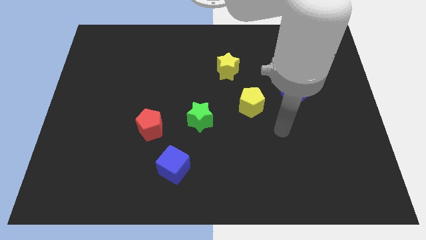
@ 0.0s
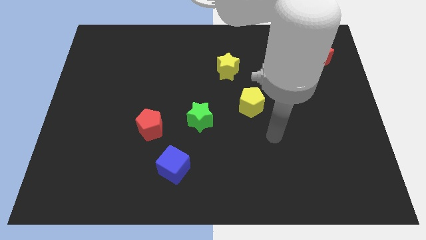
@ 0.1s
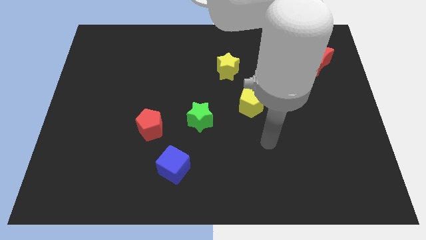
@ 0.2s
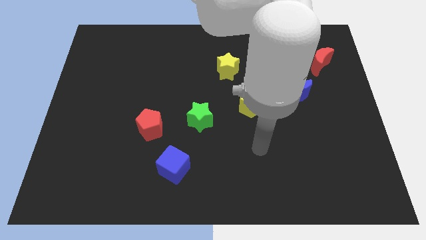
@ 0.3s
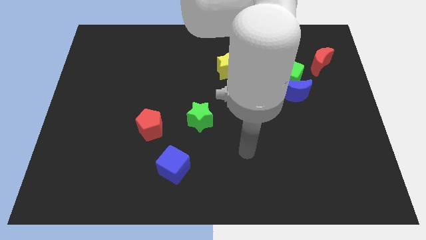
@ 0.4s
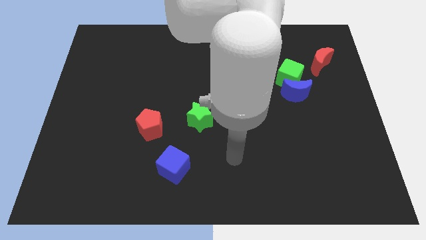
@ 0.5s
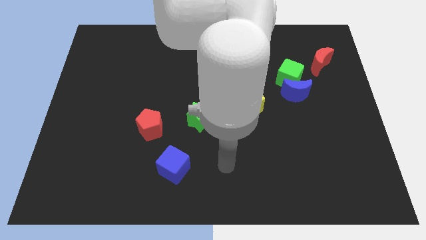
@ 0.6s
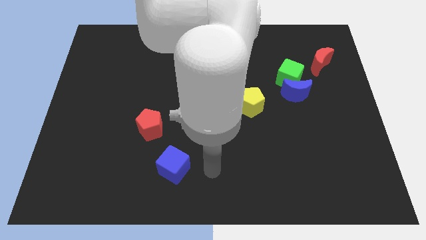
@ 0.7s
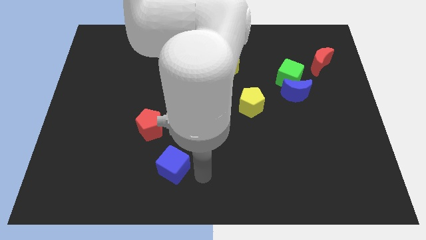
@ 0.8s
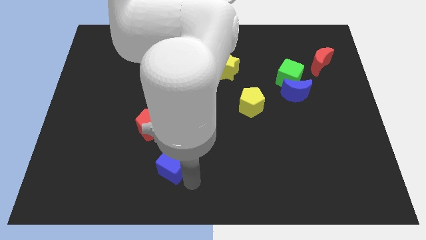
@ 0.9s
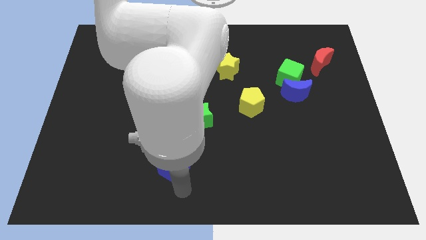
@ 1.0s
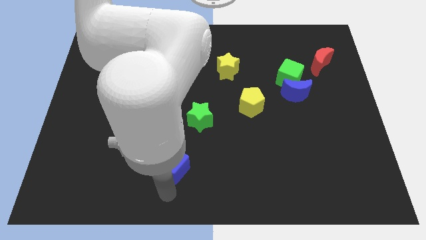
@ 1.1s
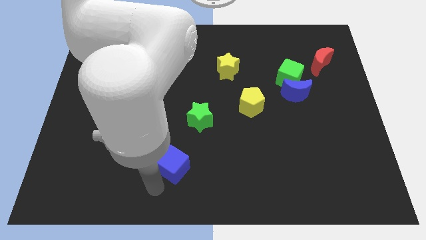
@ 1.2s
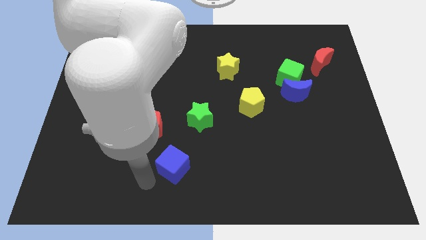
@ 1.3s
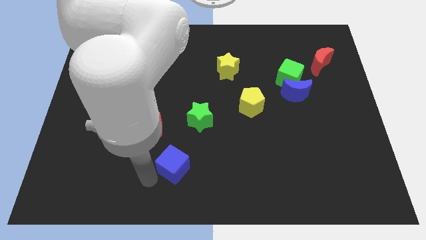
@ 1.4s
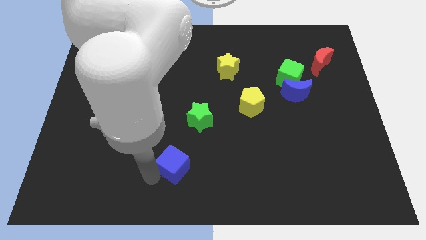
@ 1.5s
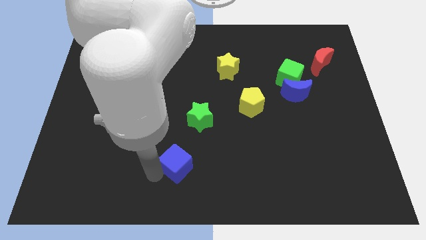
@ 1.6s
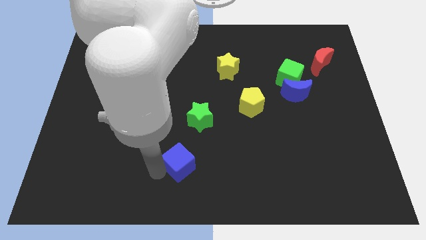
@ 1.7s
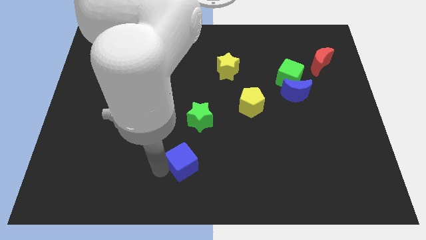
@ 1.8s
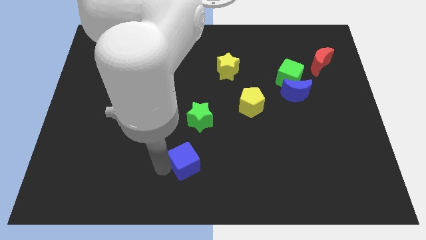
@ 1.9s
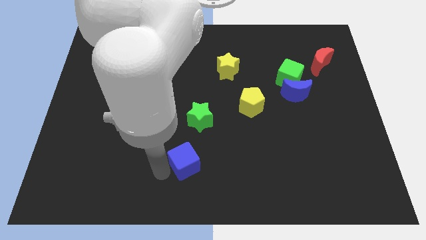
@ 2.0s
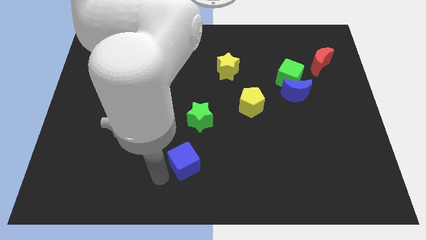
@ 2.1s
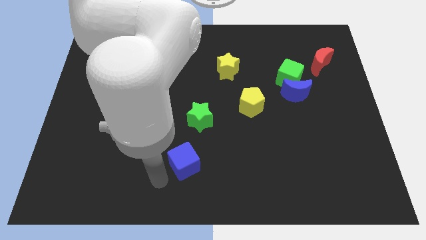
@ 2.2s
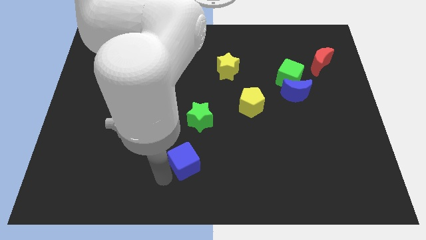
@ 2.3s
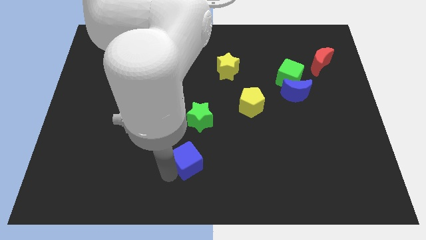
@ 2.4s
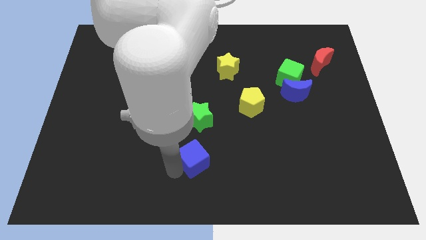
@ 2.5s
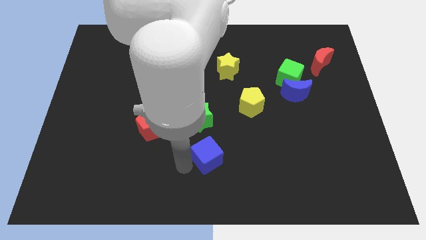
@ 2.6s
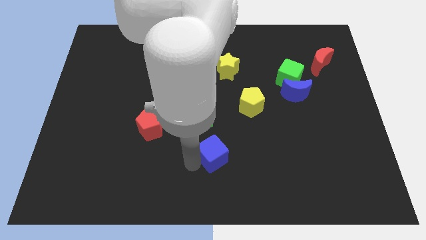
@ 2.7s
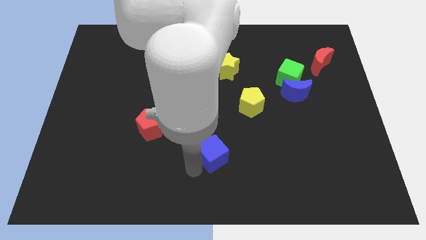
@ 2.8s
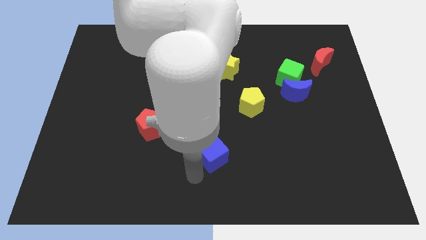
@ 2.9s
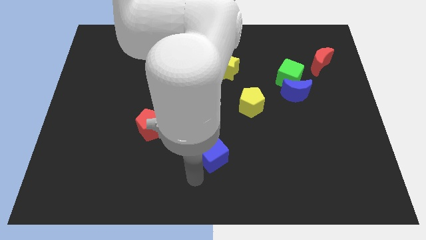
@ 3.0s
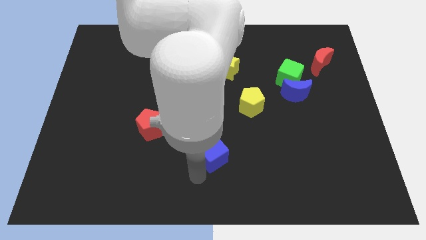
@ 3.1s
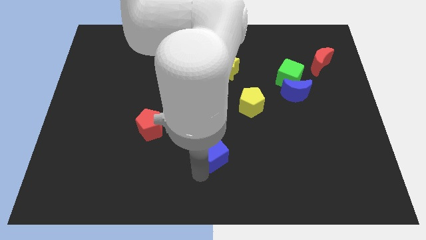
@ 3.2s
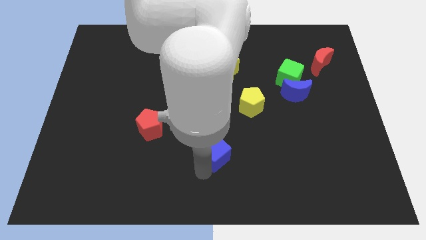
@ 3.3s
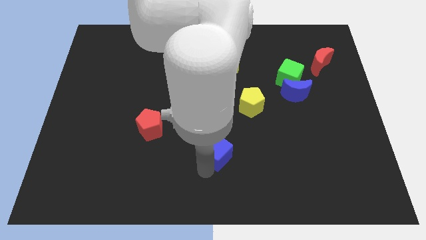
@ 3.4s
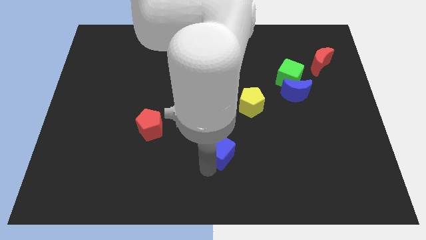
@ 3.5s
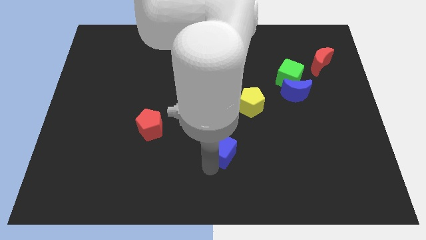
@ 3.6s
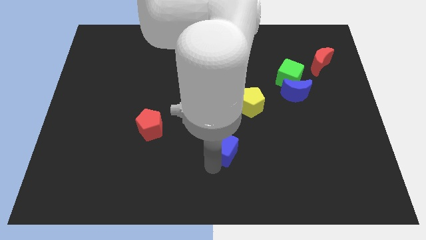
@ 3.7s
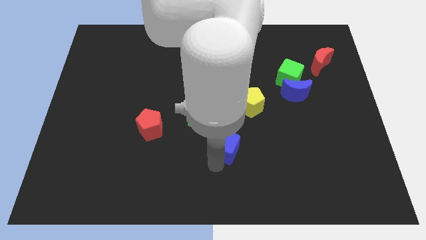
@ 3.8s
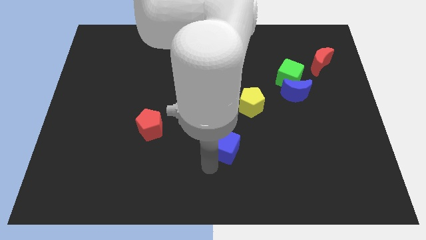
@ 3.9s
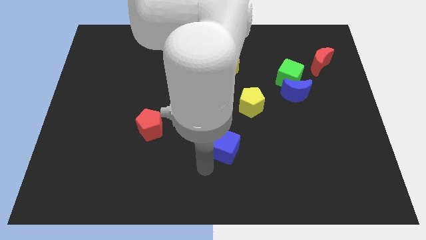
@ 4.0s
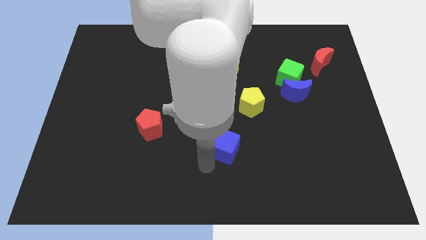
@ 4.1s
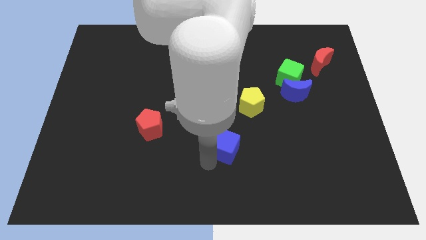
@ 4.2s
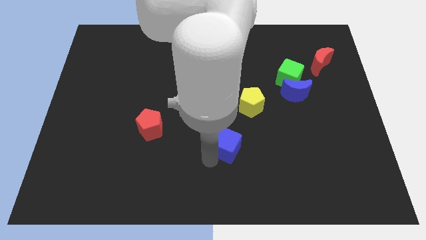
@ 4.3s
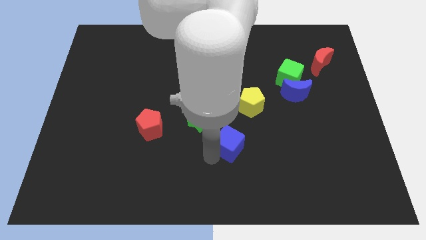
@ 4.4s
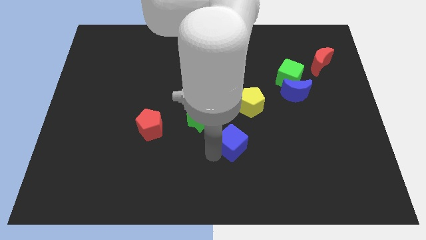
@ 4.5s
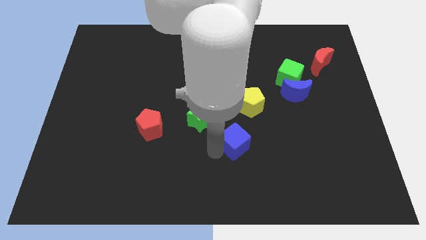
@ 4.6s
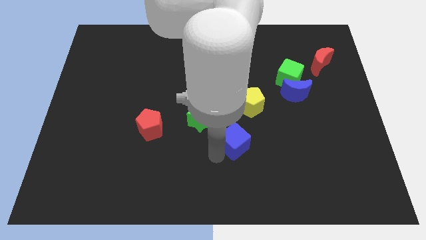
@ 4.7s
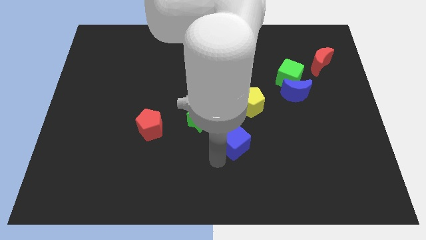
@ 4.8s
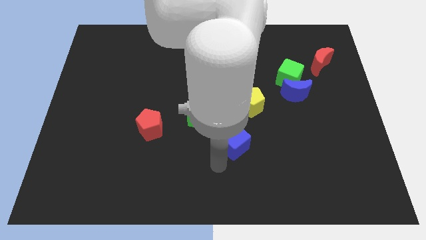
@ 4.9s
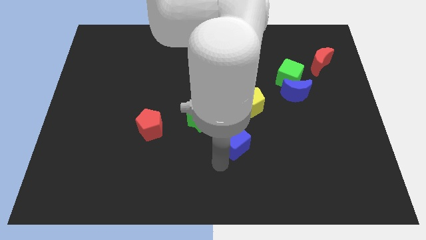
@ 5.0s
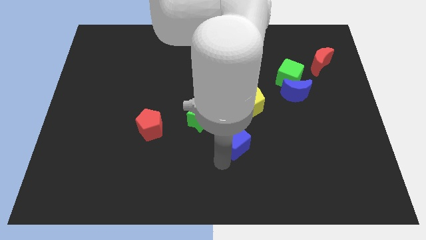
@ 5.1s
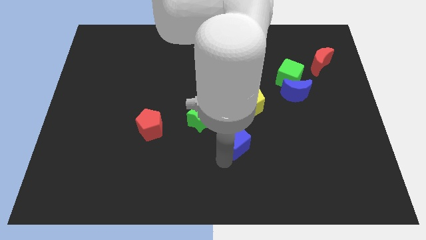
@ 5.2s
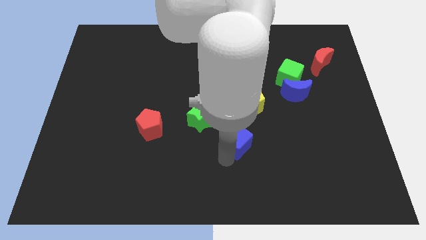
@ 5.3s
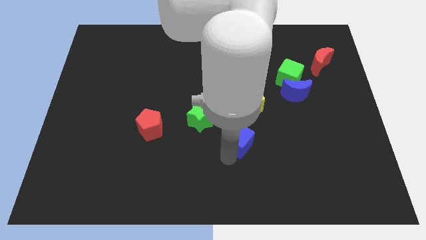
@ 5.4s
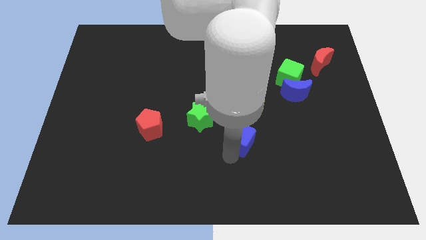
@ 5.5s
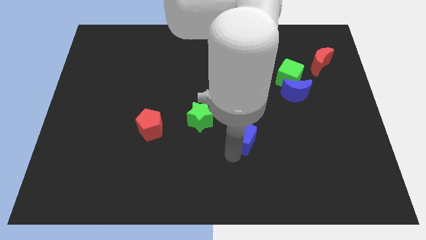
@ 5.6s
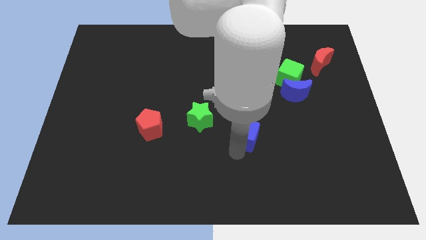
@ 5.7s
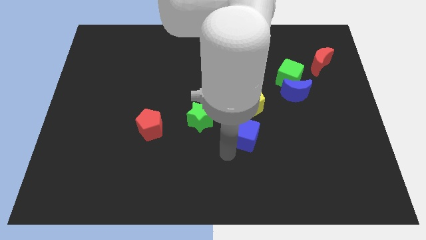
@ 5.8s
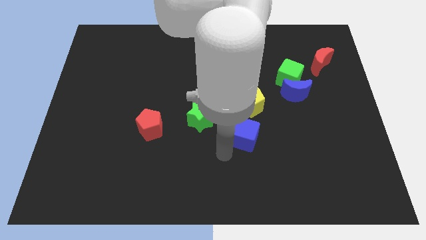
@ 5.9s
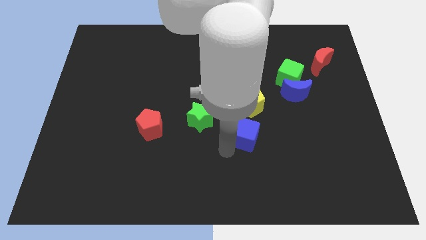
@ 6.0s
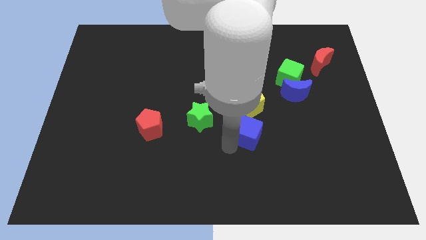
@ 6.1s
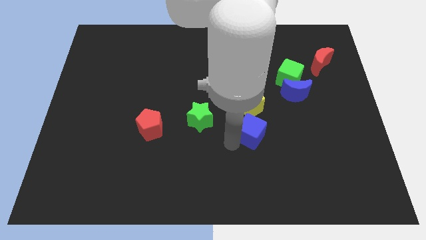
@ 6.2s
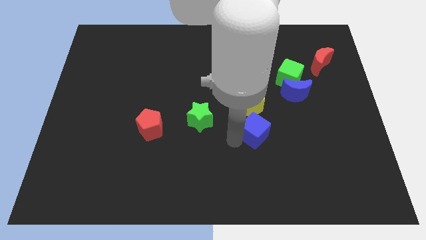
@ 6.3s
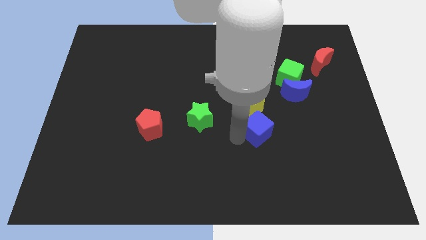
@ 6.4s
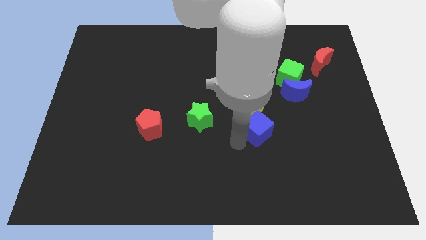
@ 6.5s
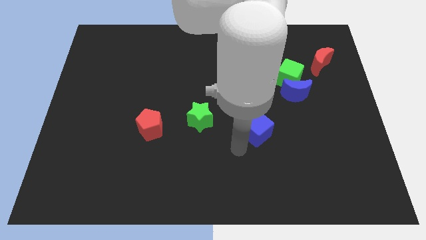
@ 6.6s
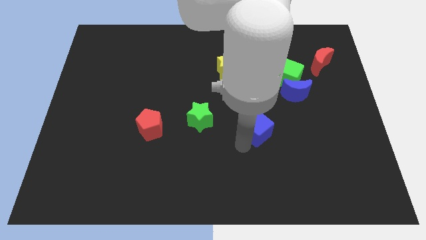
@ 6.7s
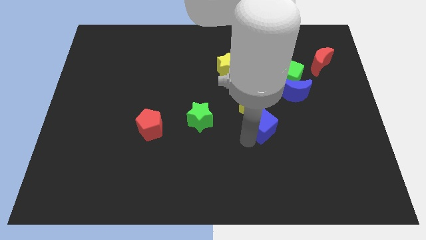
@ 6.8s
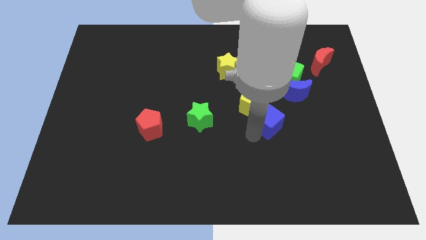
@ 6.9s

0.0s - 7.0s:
push the blue cube to the bottom left of the blue moon

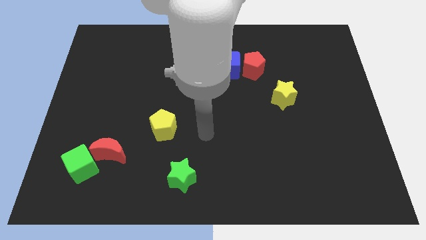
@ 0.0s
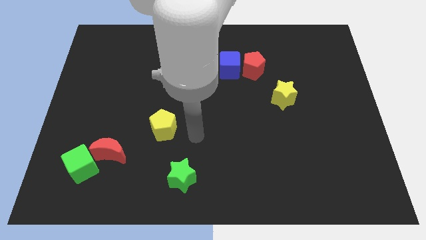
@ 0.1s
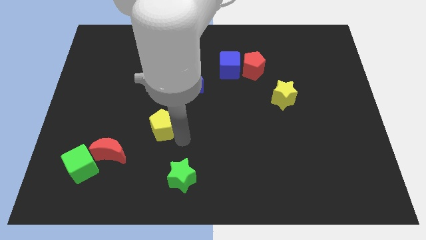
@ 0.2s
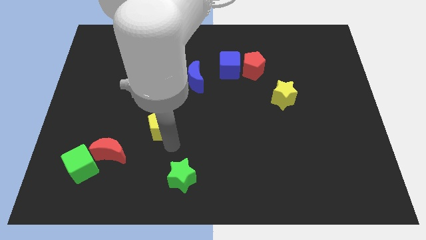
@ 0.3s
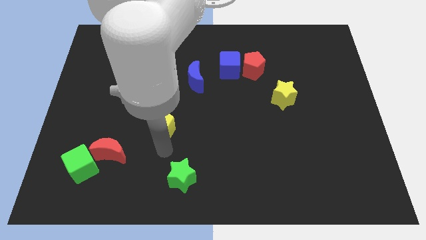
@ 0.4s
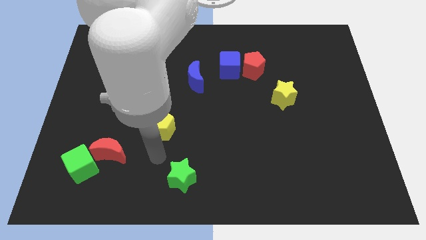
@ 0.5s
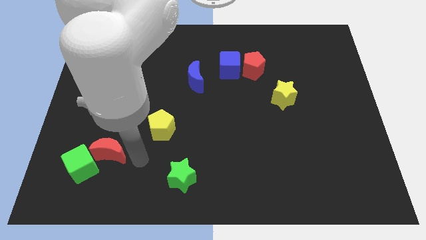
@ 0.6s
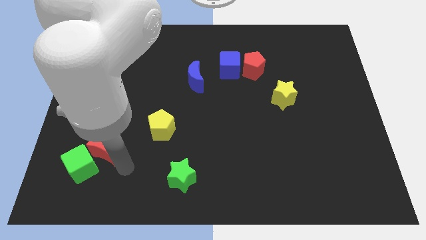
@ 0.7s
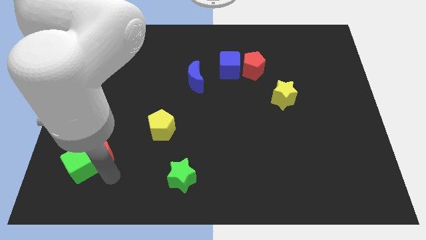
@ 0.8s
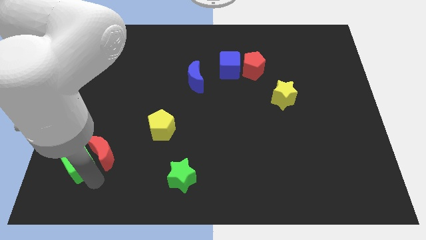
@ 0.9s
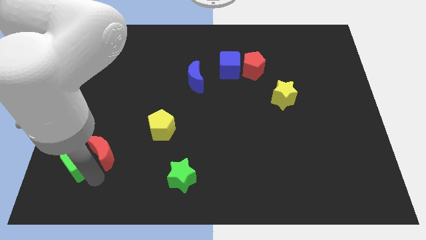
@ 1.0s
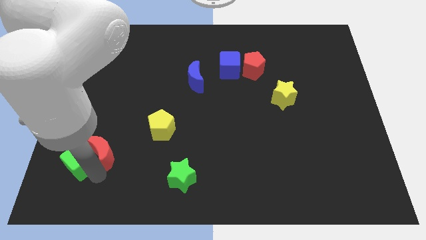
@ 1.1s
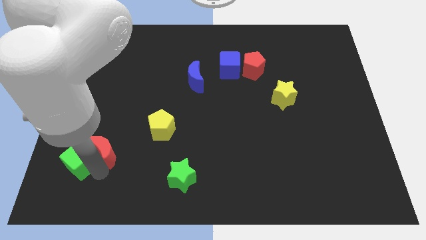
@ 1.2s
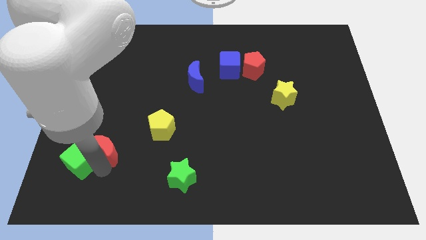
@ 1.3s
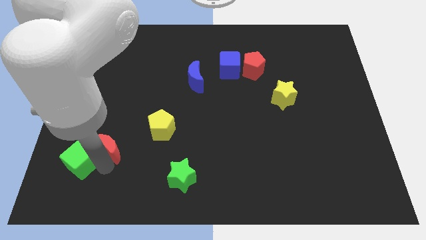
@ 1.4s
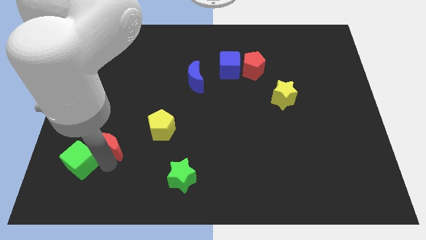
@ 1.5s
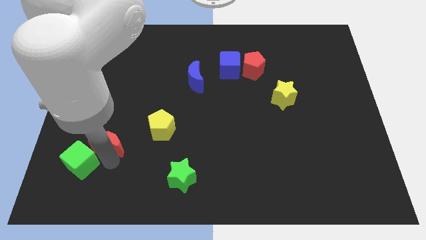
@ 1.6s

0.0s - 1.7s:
move the red moon left of the yellow pentagon
